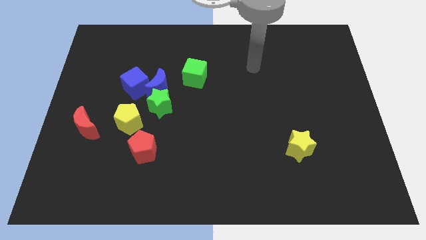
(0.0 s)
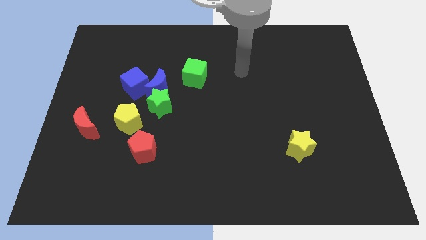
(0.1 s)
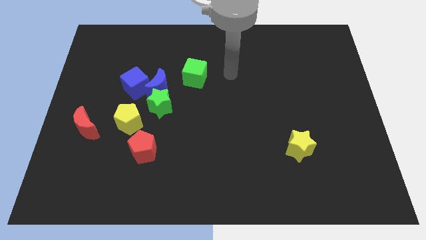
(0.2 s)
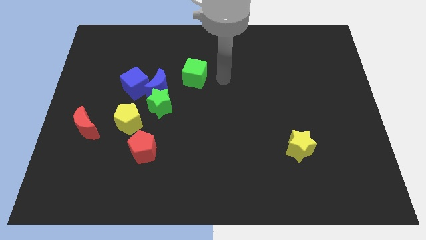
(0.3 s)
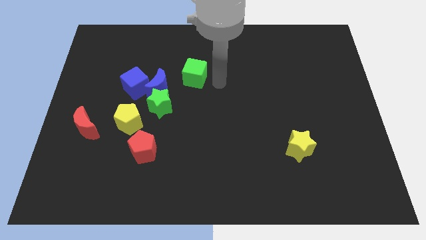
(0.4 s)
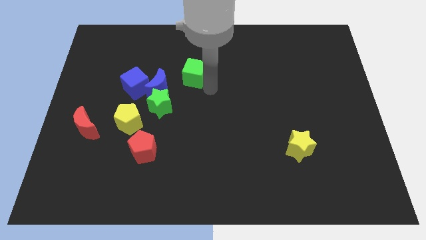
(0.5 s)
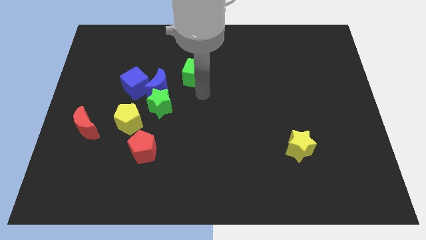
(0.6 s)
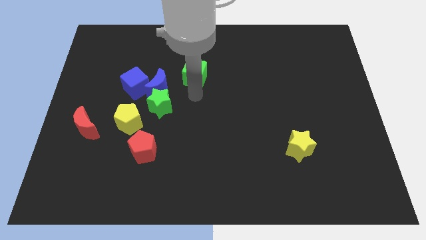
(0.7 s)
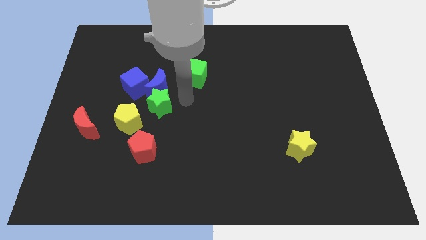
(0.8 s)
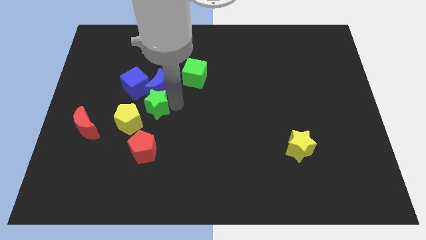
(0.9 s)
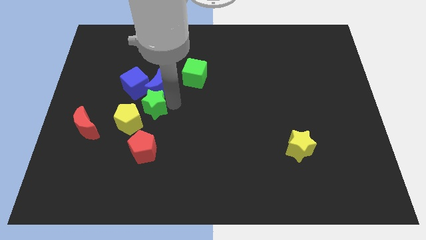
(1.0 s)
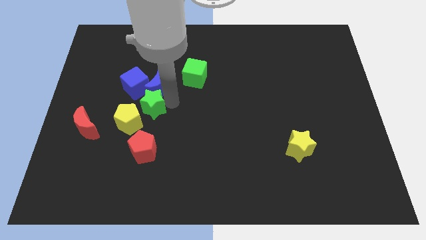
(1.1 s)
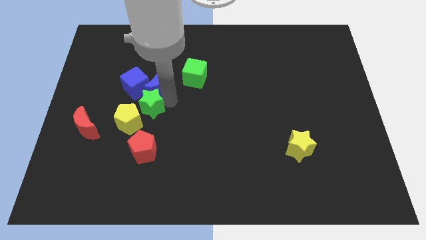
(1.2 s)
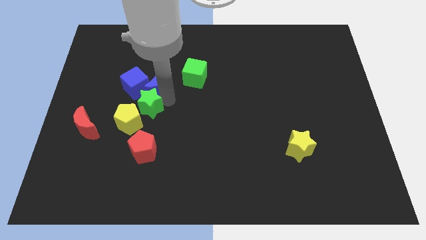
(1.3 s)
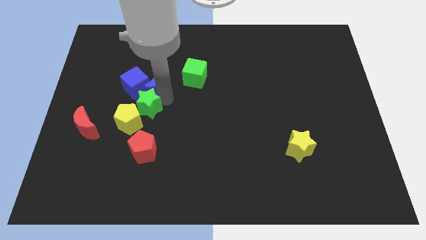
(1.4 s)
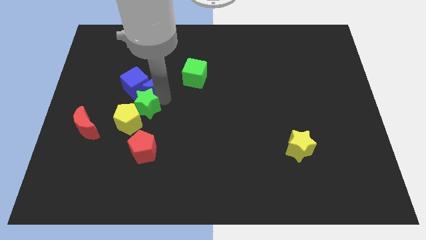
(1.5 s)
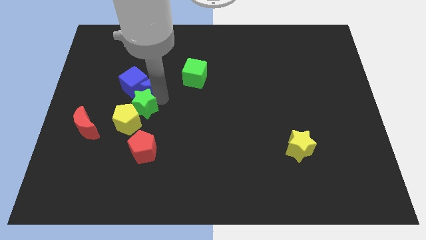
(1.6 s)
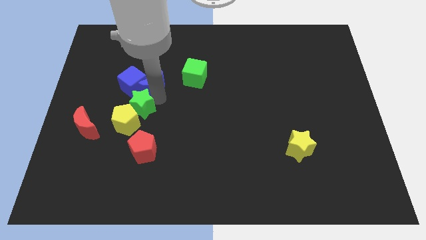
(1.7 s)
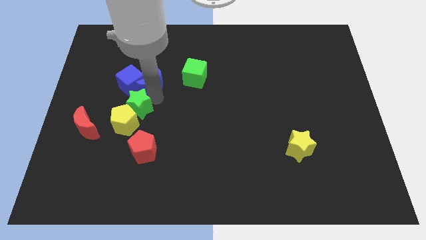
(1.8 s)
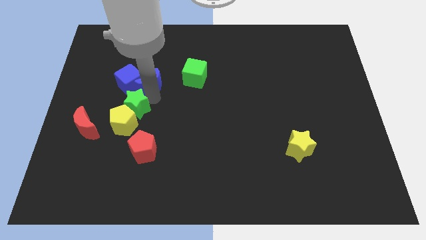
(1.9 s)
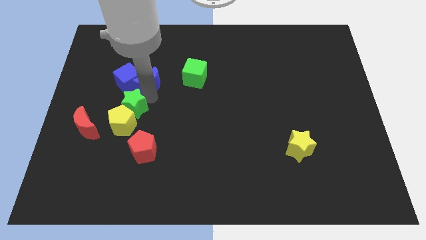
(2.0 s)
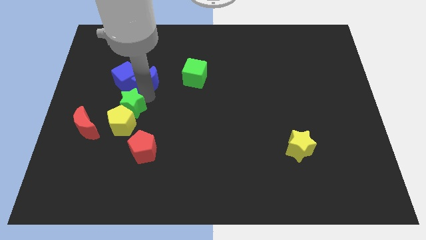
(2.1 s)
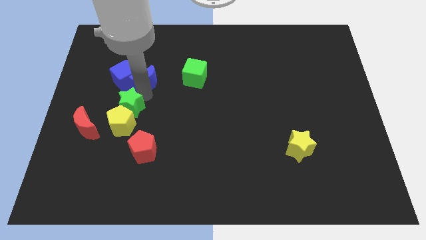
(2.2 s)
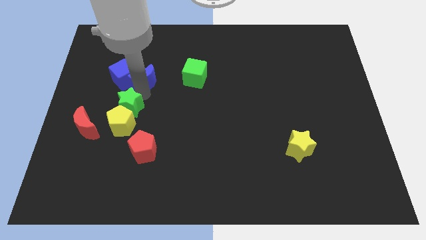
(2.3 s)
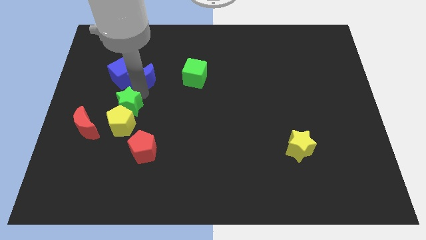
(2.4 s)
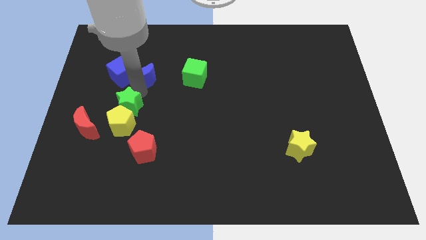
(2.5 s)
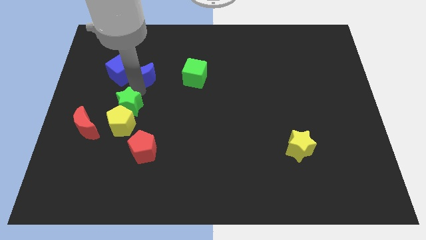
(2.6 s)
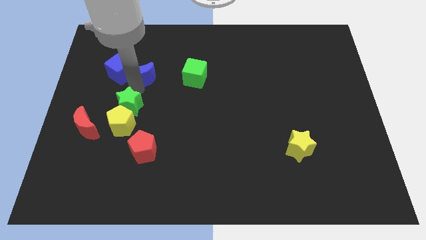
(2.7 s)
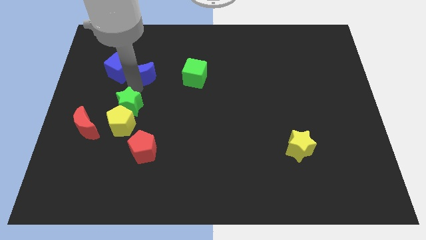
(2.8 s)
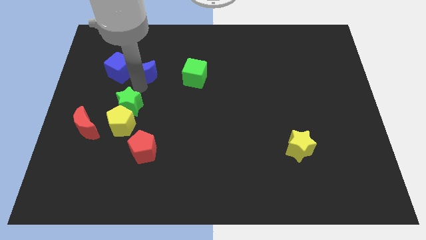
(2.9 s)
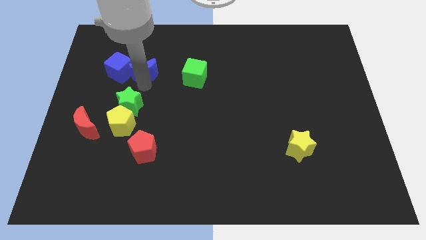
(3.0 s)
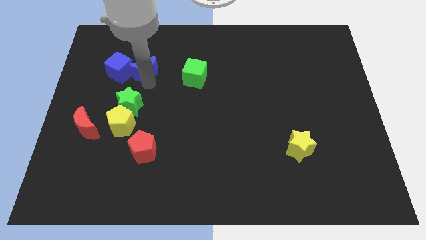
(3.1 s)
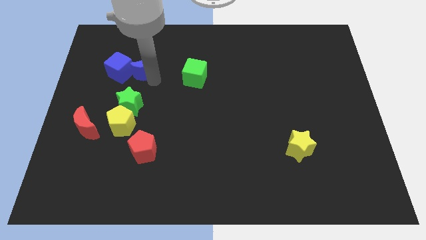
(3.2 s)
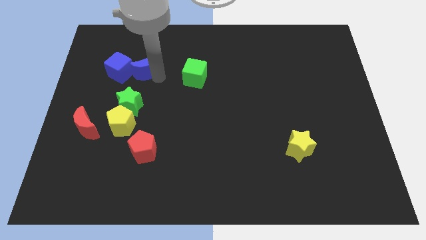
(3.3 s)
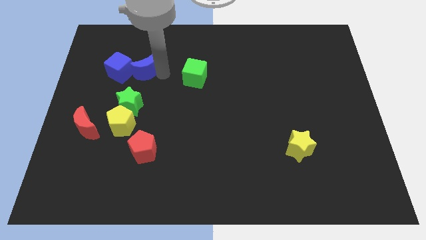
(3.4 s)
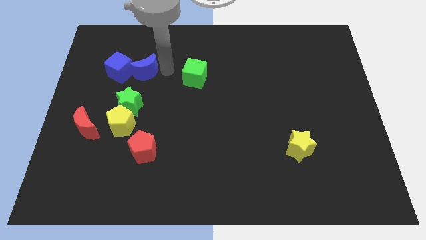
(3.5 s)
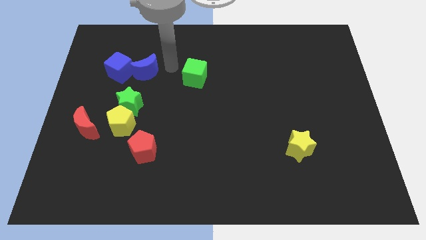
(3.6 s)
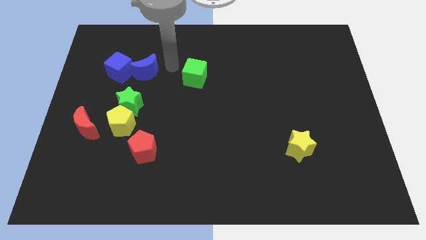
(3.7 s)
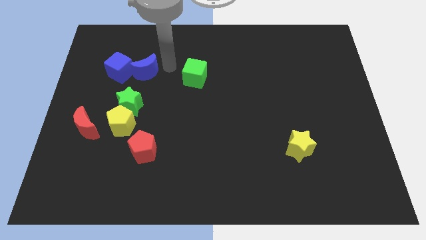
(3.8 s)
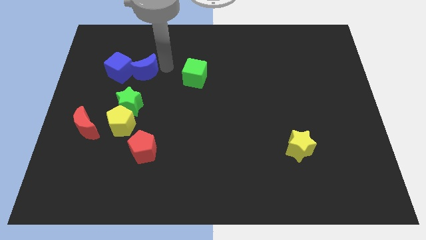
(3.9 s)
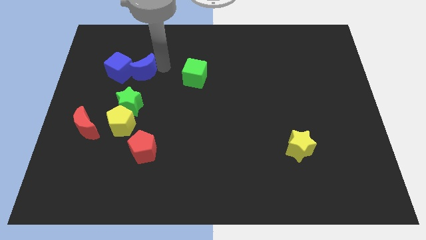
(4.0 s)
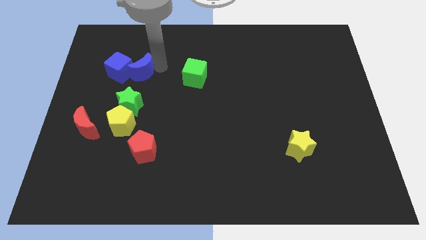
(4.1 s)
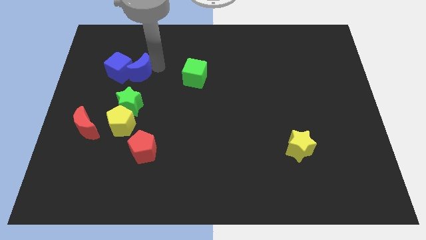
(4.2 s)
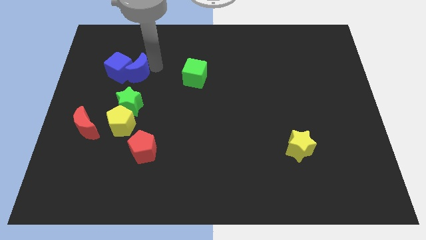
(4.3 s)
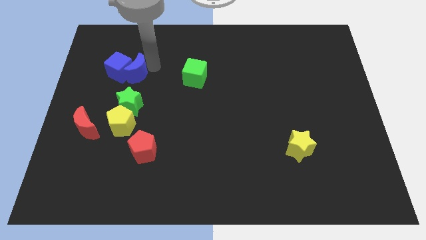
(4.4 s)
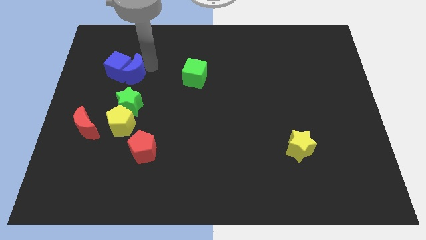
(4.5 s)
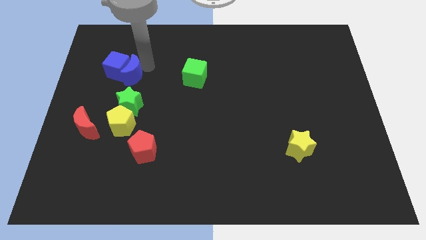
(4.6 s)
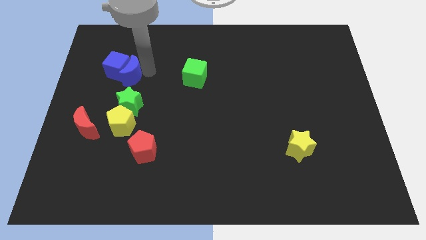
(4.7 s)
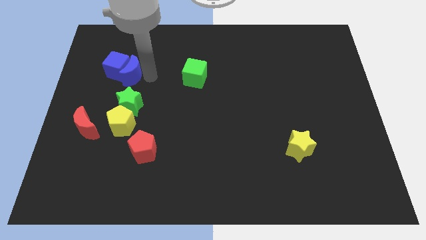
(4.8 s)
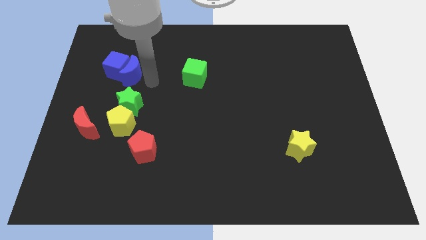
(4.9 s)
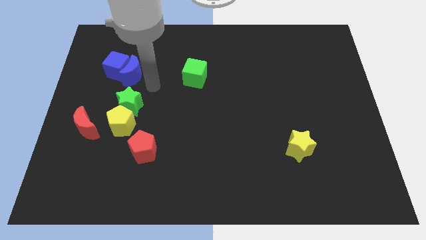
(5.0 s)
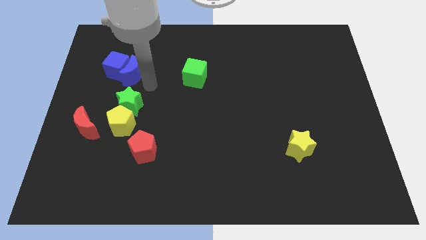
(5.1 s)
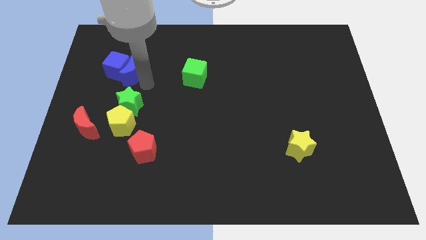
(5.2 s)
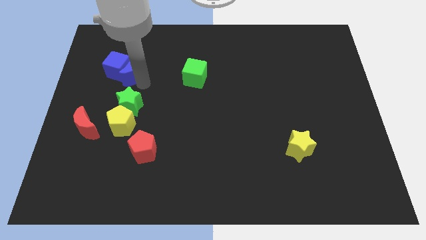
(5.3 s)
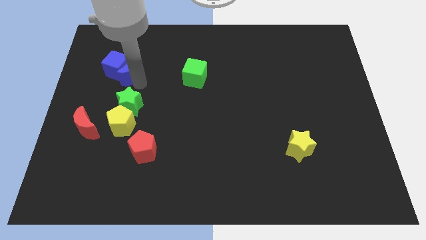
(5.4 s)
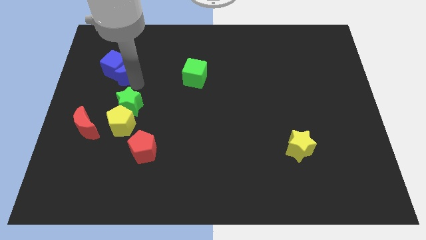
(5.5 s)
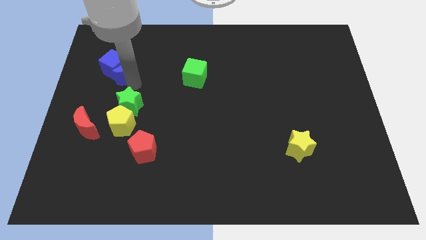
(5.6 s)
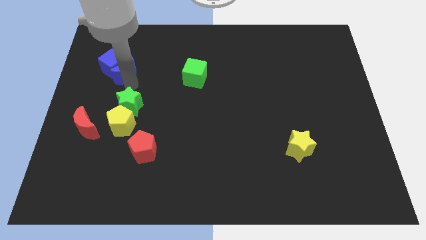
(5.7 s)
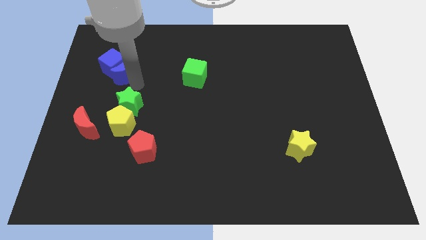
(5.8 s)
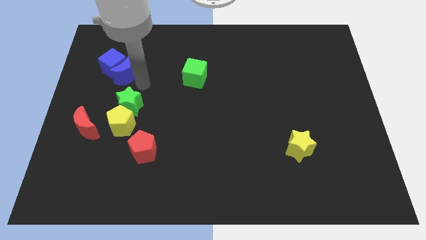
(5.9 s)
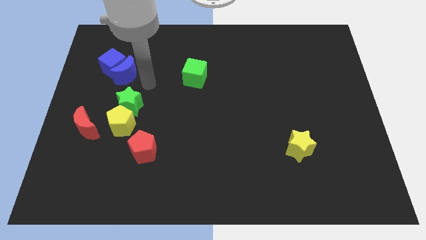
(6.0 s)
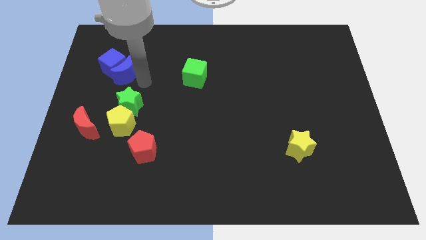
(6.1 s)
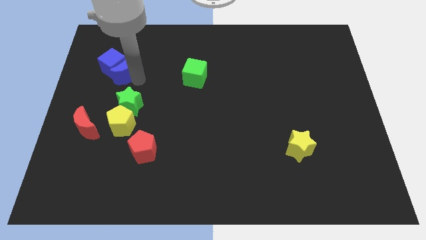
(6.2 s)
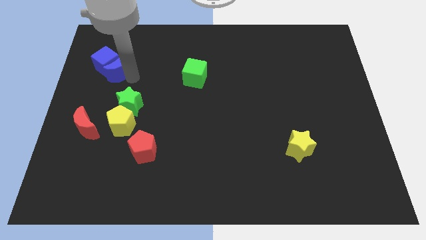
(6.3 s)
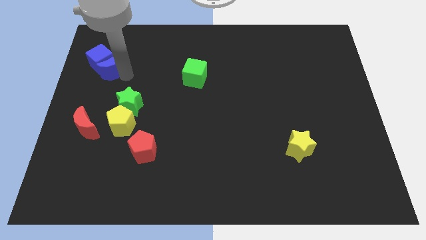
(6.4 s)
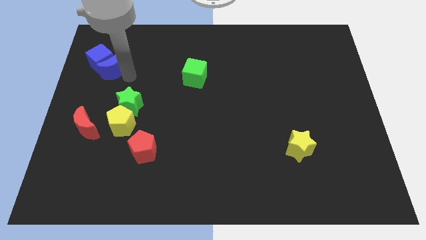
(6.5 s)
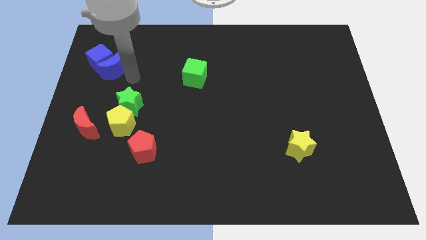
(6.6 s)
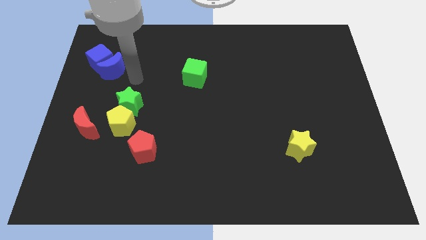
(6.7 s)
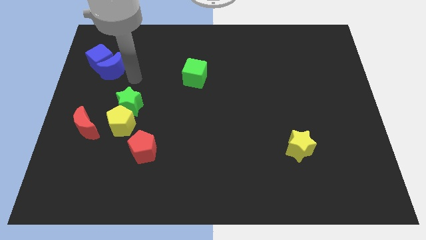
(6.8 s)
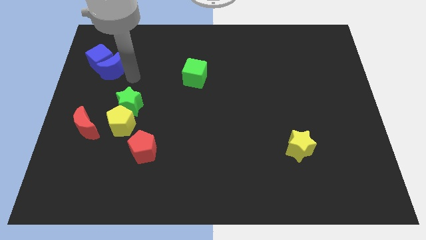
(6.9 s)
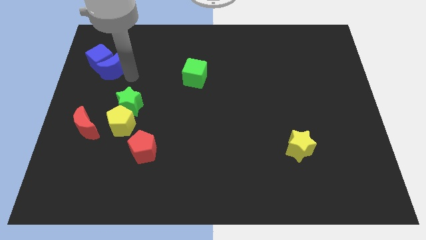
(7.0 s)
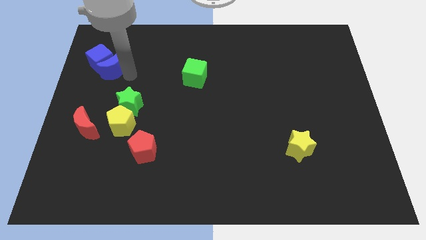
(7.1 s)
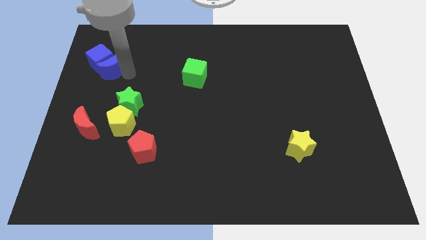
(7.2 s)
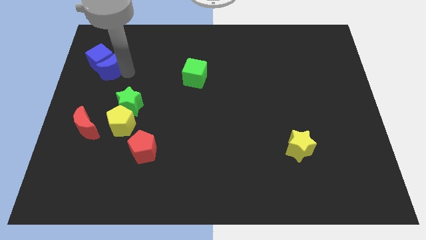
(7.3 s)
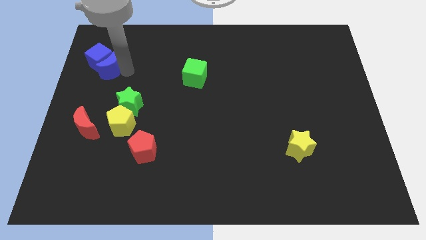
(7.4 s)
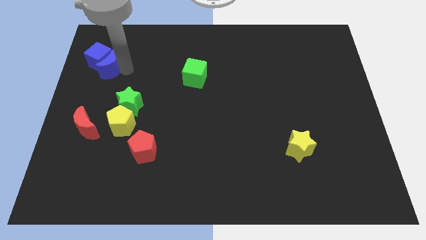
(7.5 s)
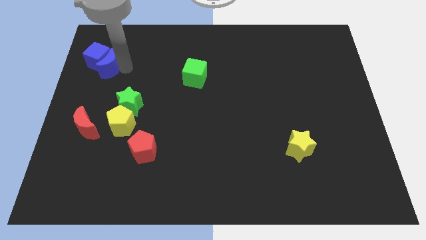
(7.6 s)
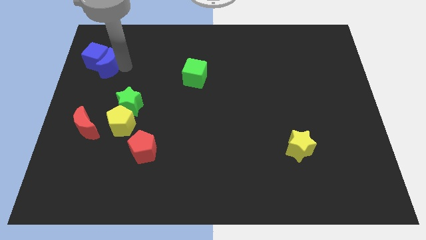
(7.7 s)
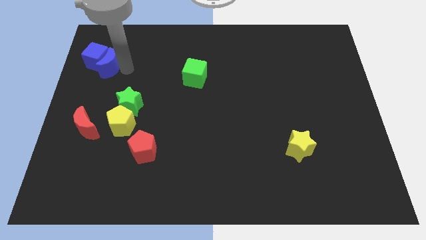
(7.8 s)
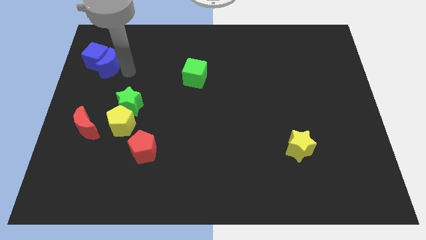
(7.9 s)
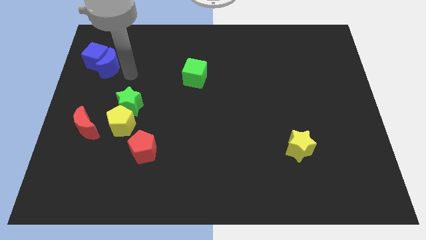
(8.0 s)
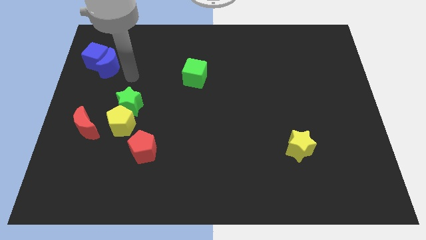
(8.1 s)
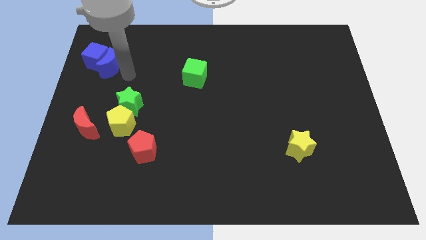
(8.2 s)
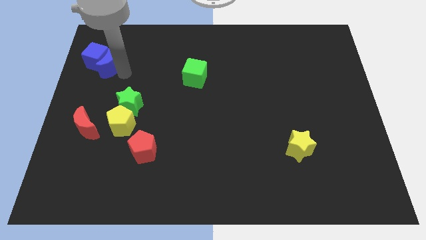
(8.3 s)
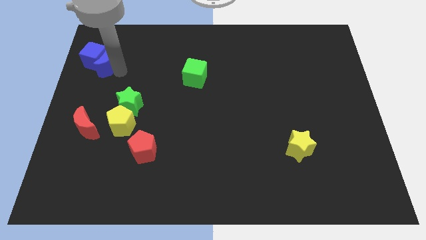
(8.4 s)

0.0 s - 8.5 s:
separate the blue moon from the green star, blue cube, and green cube

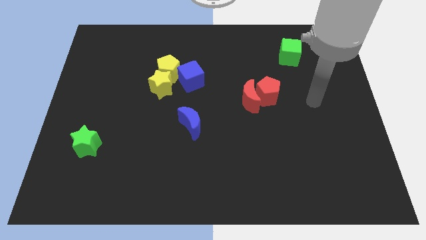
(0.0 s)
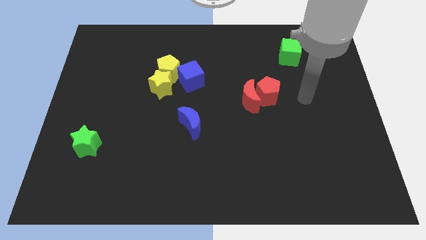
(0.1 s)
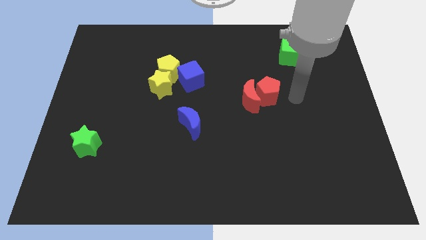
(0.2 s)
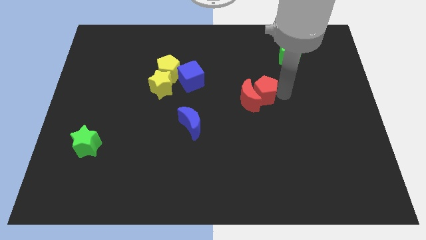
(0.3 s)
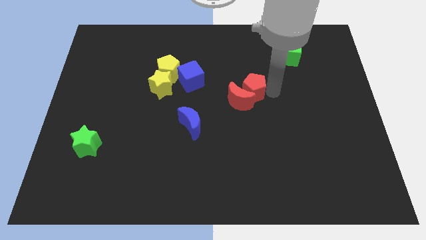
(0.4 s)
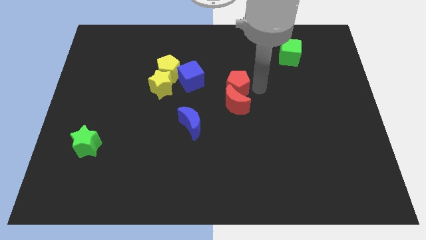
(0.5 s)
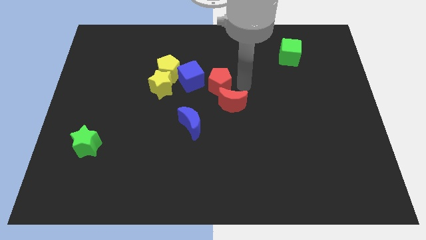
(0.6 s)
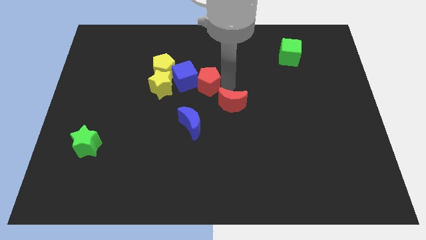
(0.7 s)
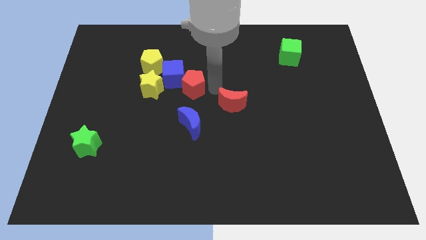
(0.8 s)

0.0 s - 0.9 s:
separate the red moon from the red pentagon
